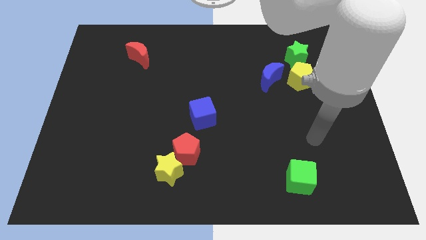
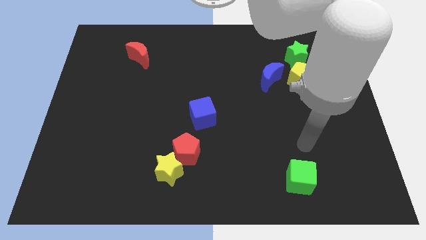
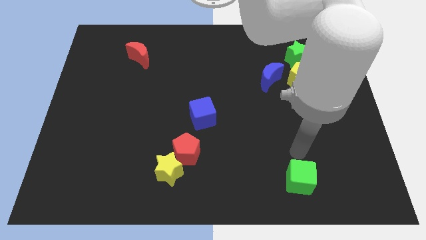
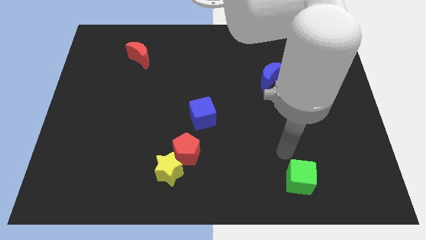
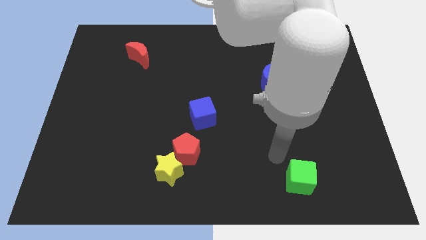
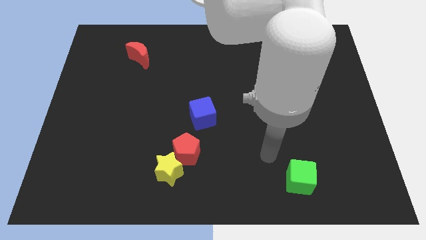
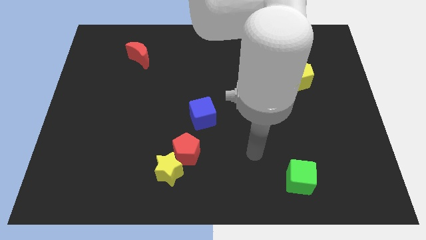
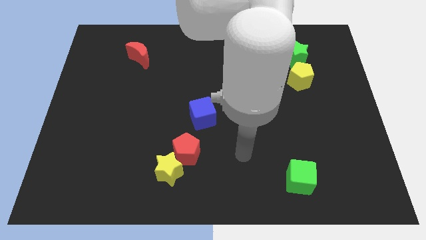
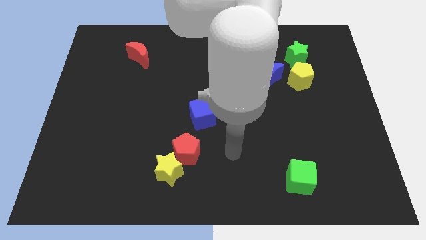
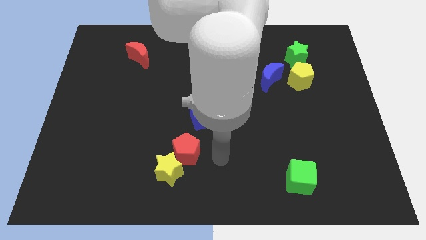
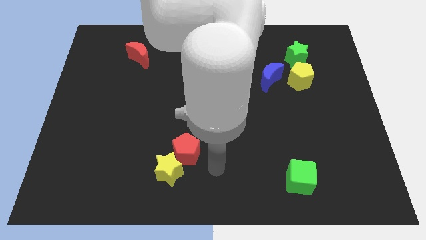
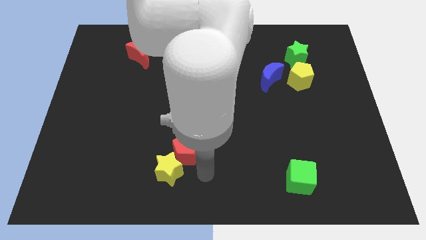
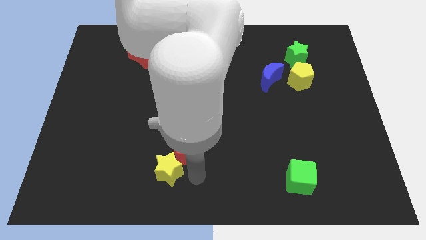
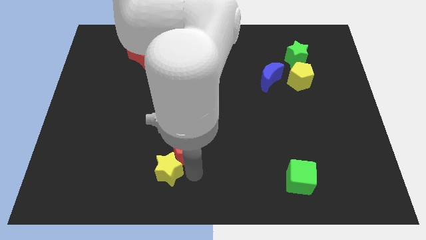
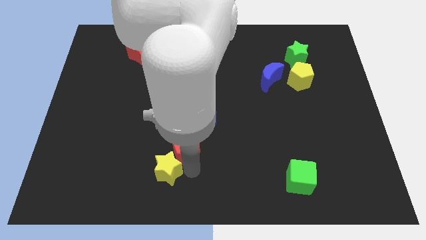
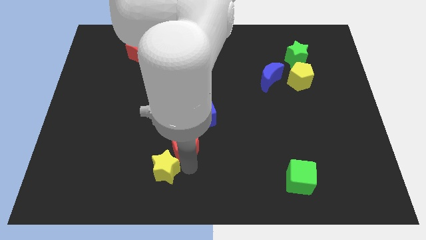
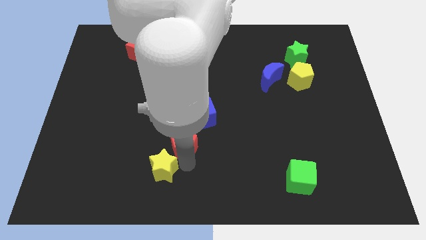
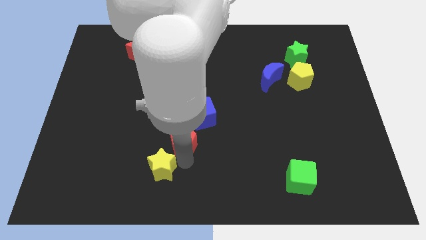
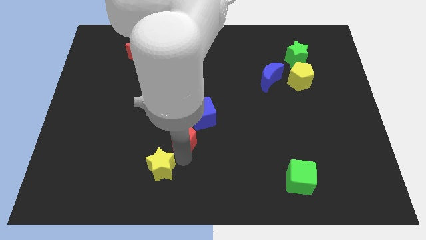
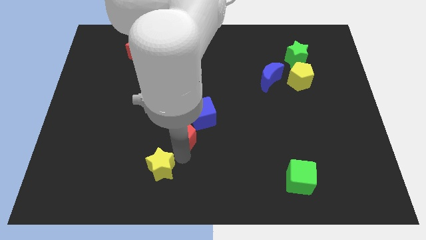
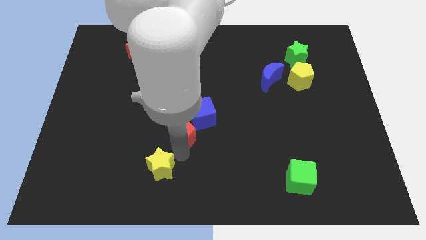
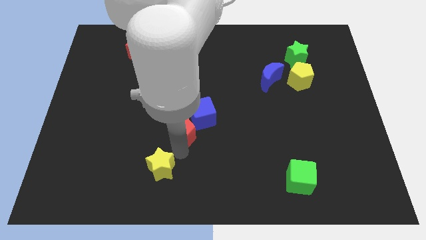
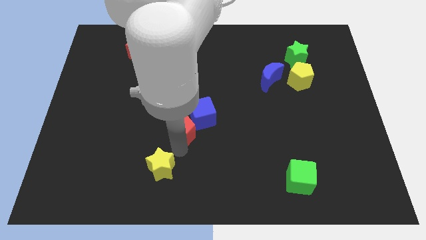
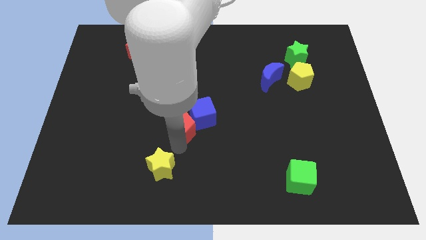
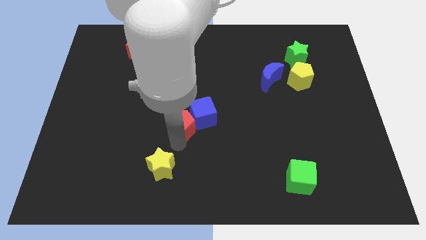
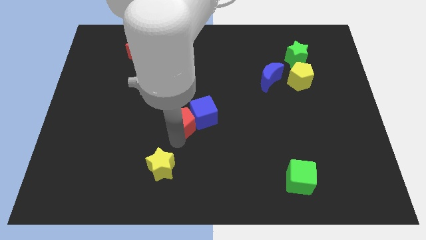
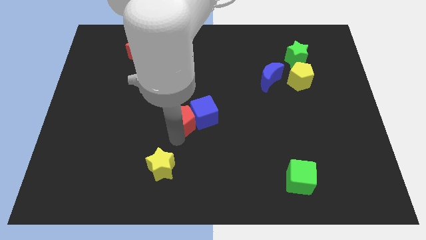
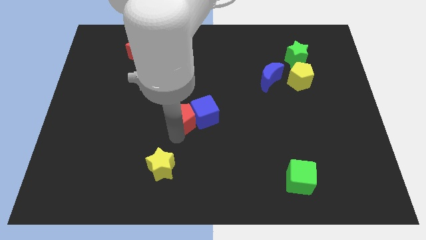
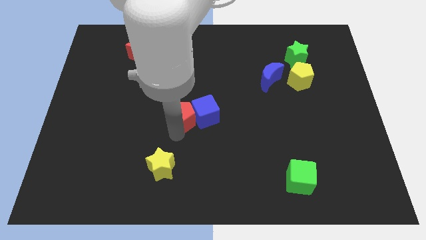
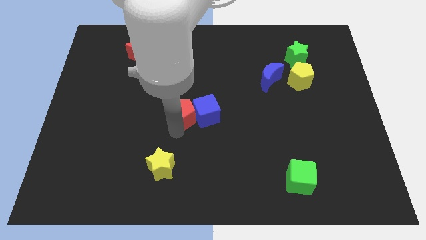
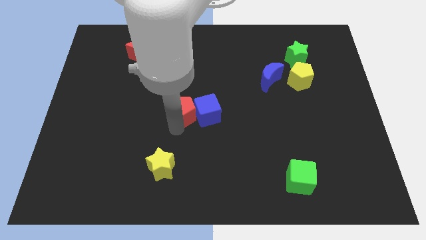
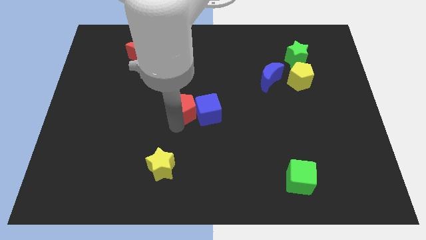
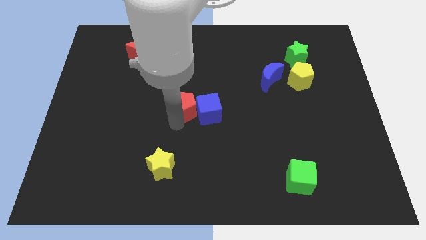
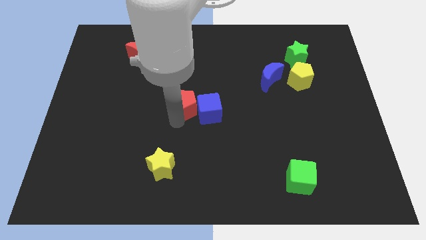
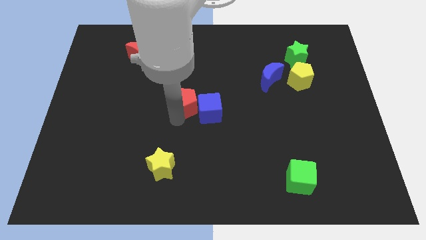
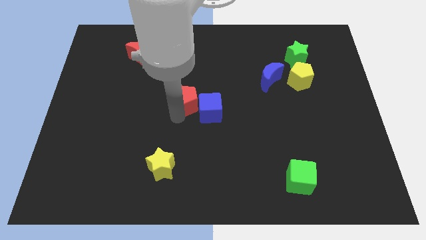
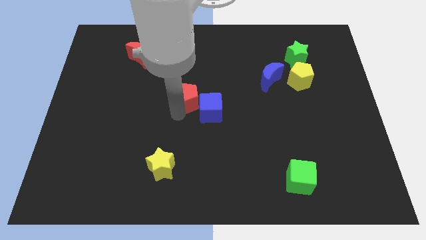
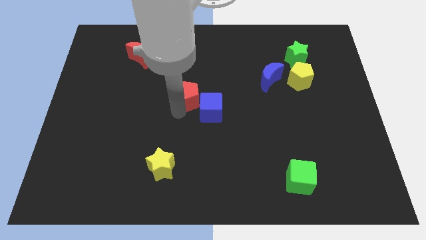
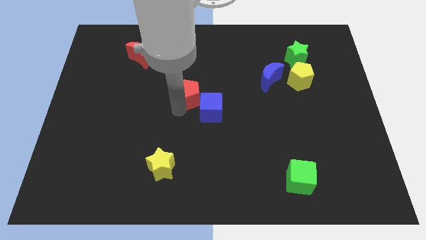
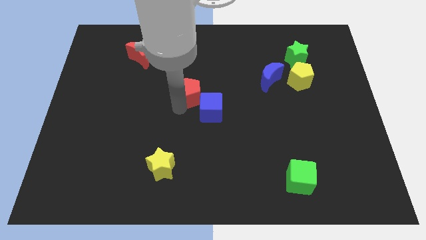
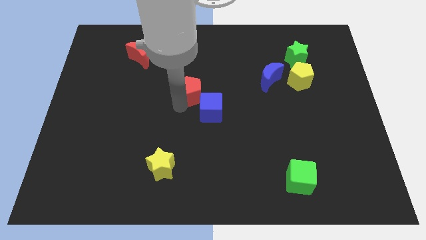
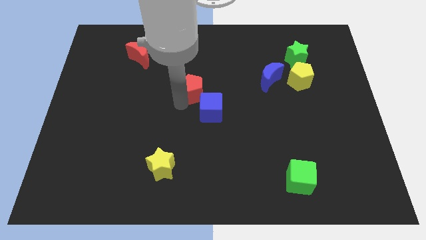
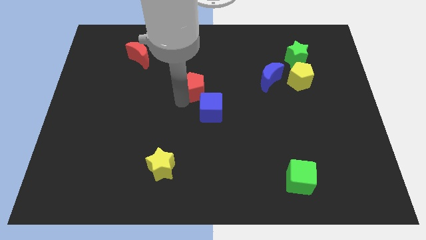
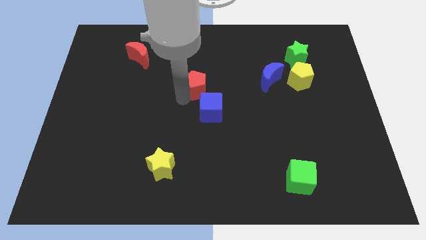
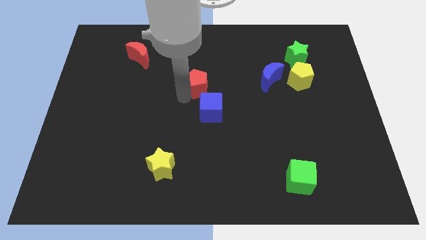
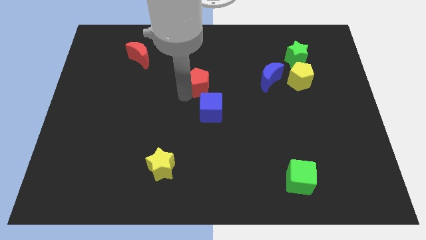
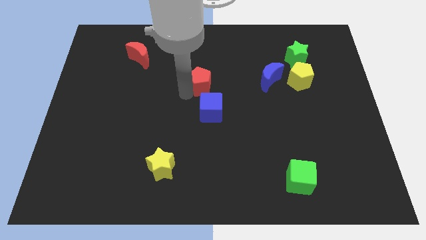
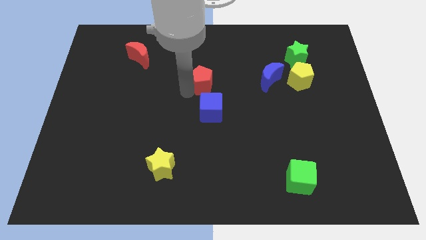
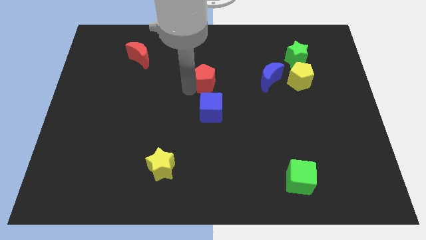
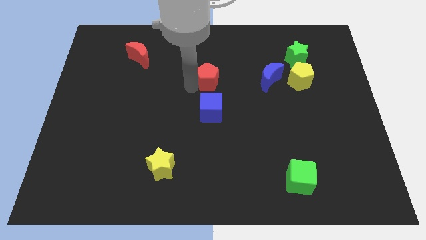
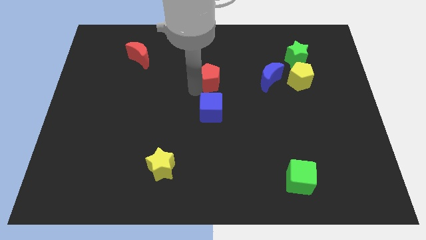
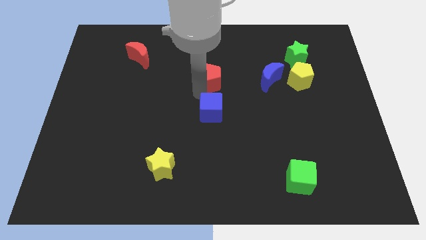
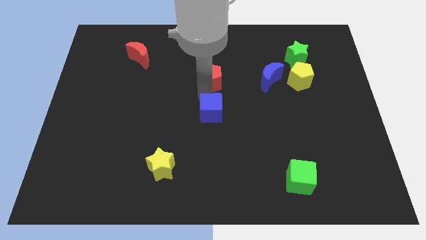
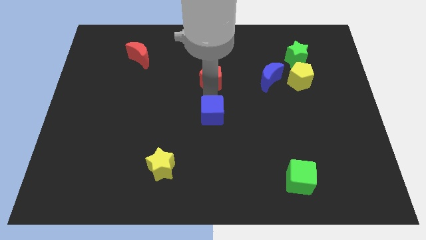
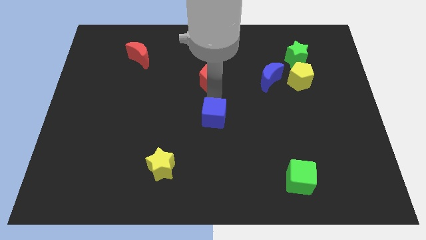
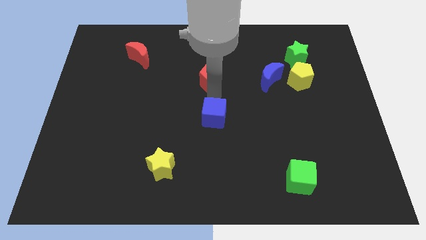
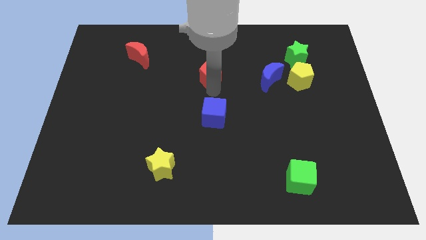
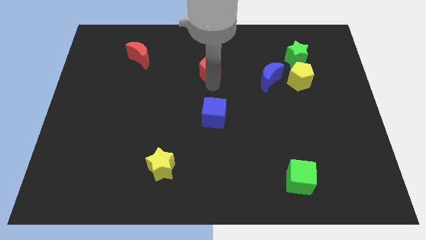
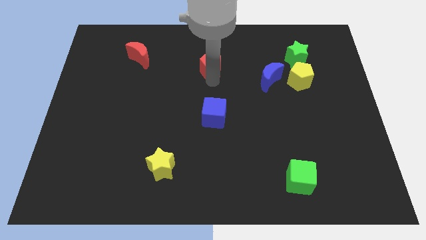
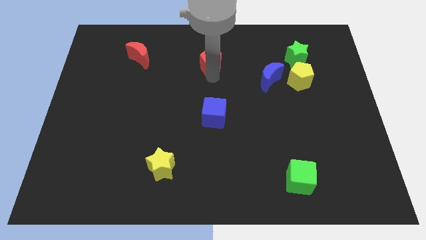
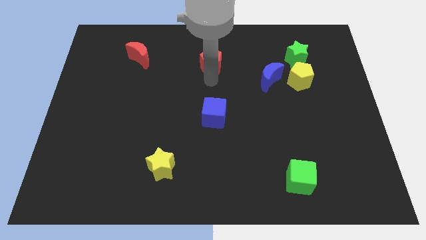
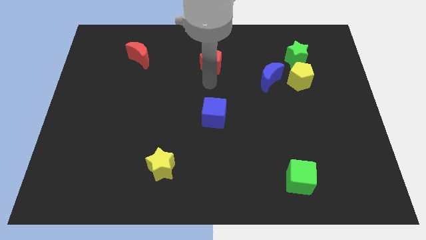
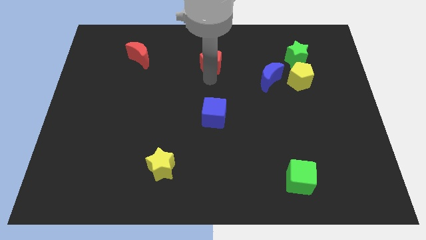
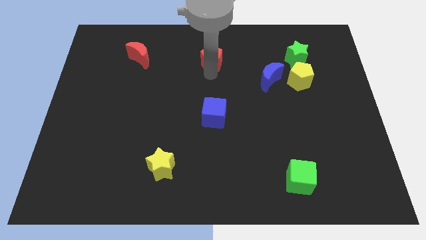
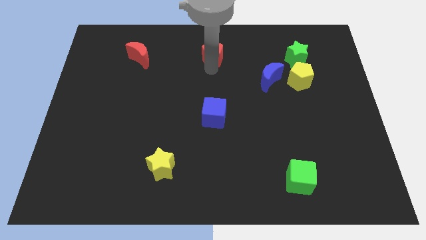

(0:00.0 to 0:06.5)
move the red pentagon to the top side
